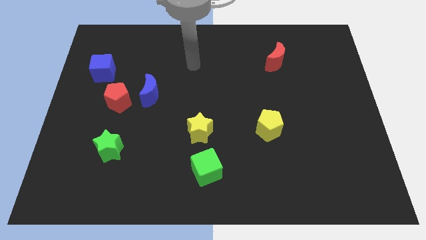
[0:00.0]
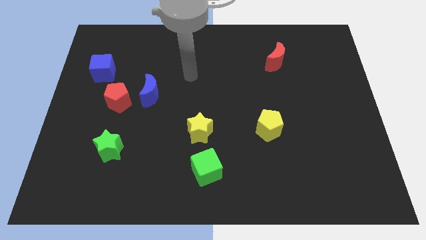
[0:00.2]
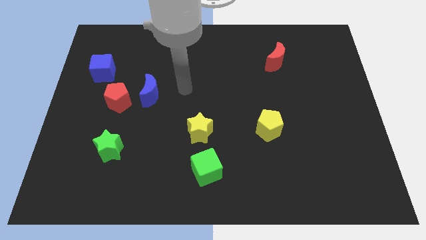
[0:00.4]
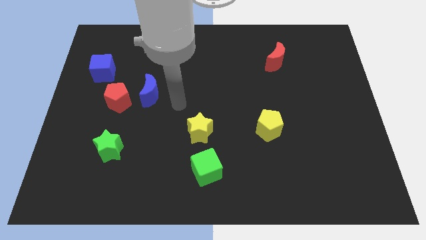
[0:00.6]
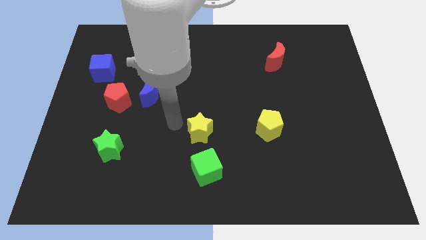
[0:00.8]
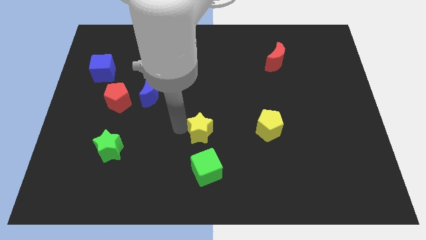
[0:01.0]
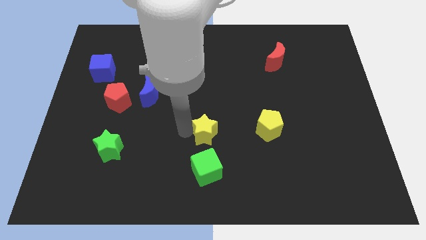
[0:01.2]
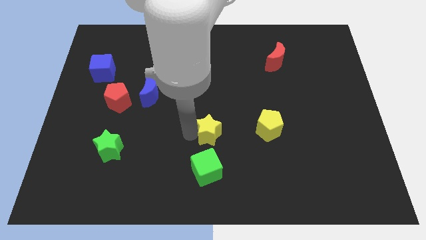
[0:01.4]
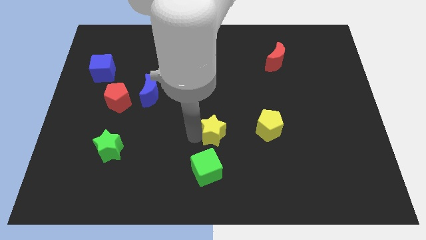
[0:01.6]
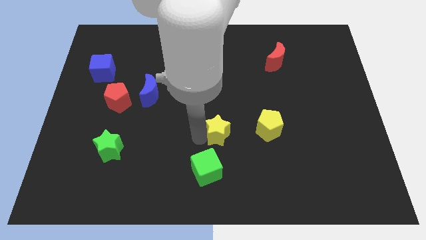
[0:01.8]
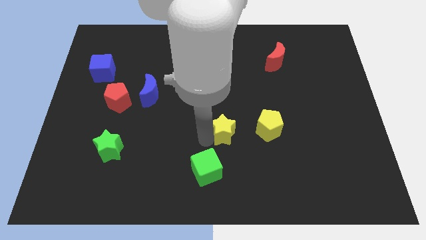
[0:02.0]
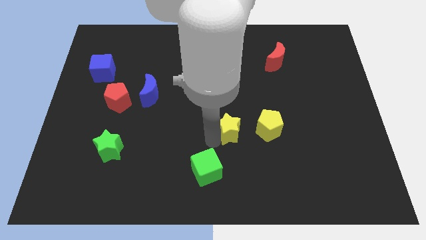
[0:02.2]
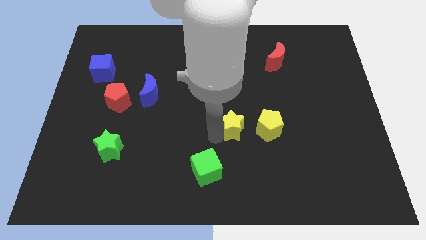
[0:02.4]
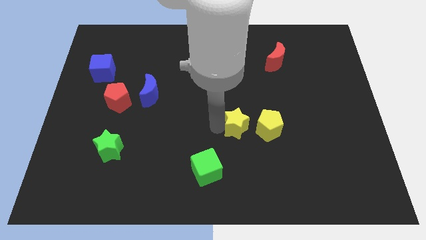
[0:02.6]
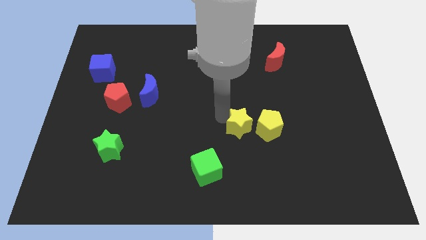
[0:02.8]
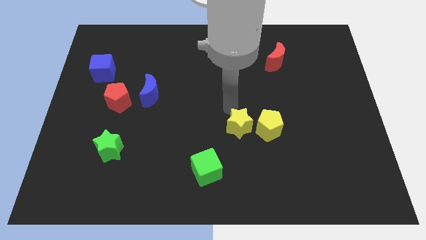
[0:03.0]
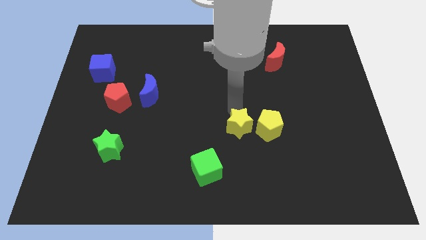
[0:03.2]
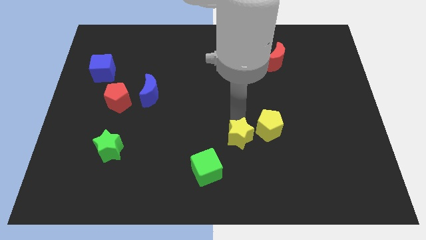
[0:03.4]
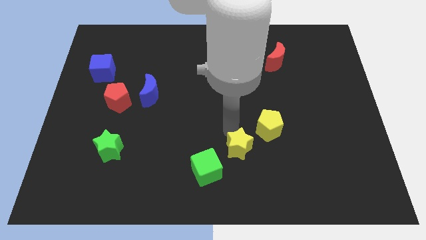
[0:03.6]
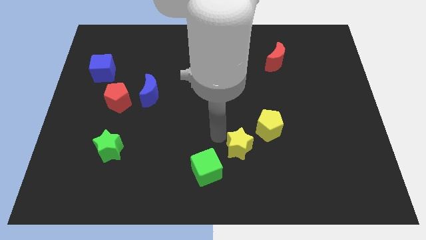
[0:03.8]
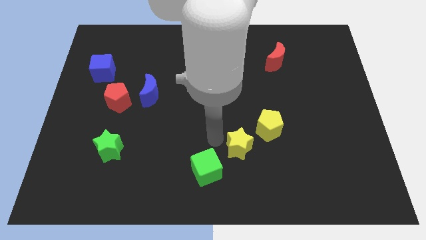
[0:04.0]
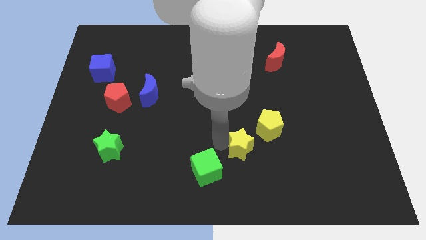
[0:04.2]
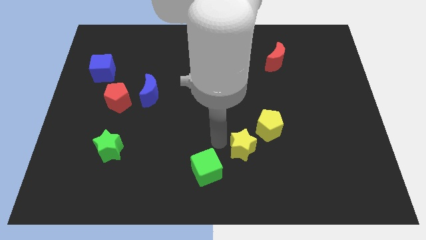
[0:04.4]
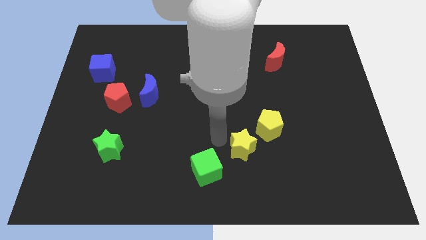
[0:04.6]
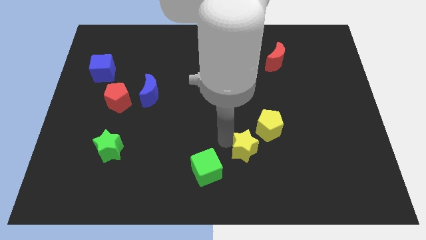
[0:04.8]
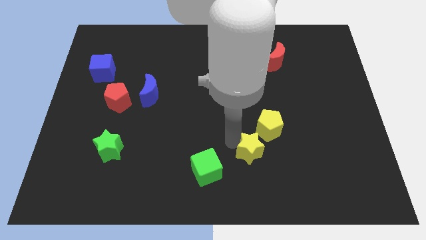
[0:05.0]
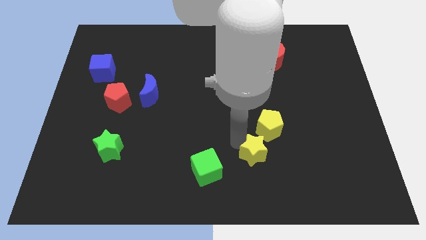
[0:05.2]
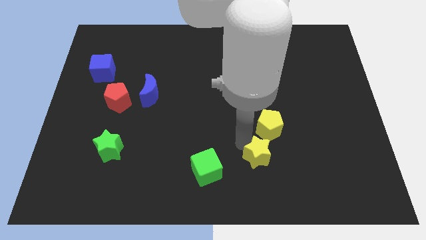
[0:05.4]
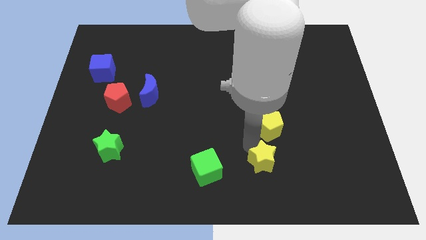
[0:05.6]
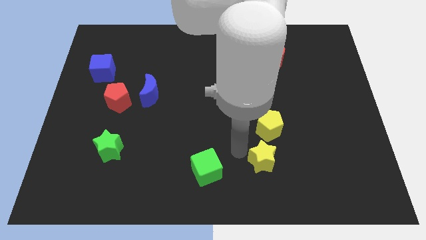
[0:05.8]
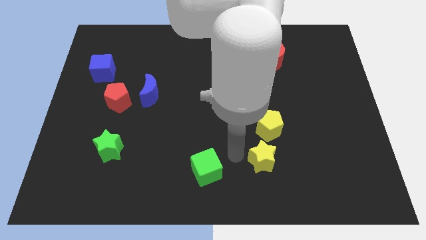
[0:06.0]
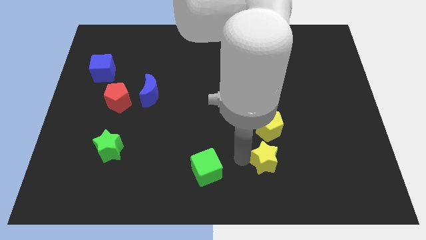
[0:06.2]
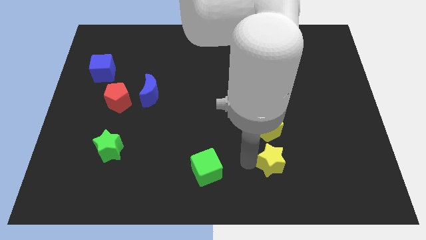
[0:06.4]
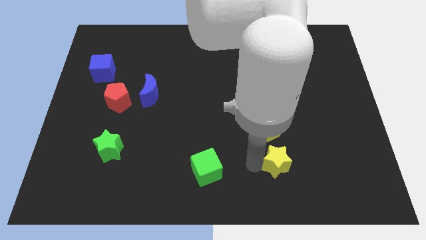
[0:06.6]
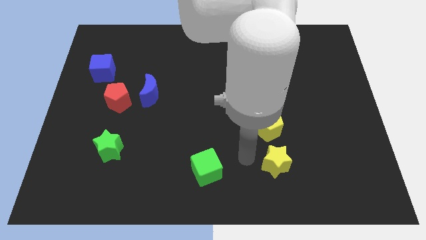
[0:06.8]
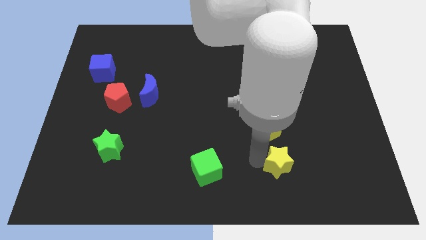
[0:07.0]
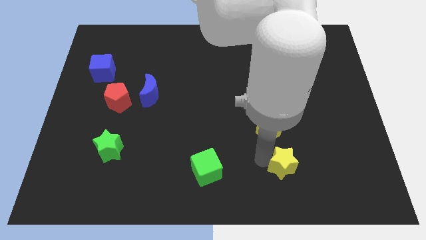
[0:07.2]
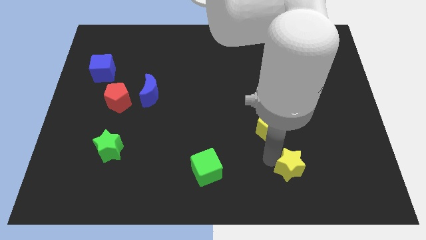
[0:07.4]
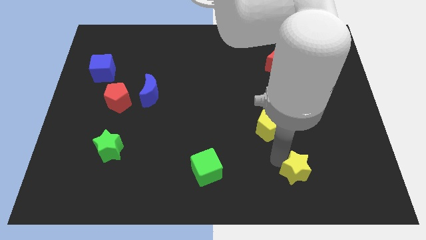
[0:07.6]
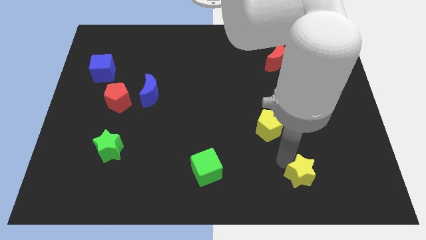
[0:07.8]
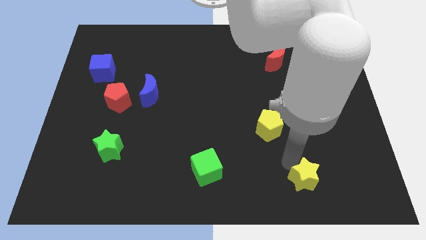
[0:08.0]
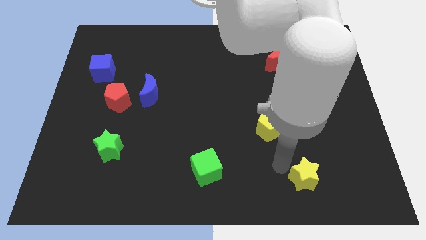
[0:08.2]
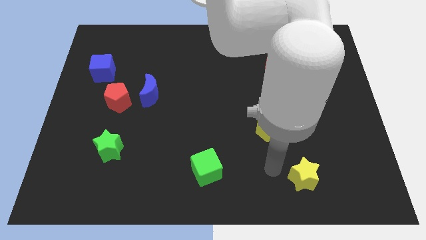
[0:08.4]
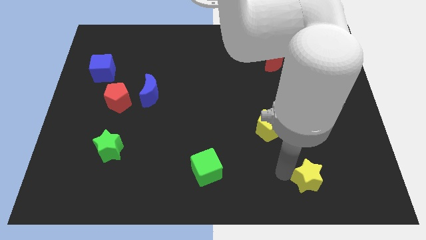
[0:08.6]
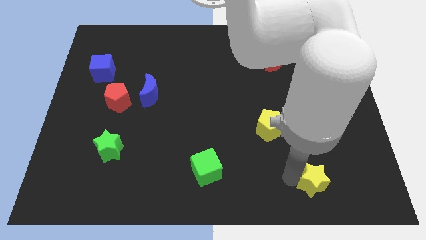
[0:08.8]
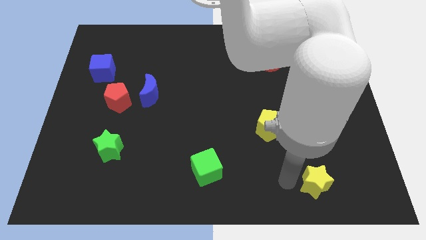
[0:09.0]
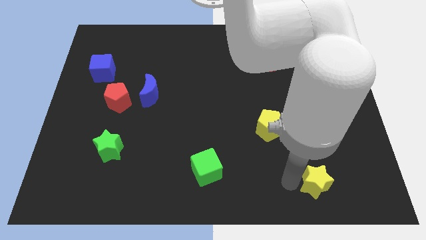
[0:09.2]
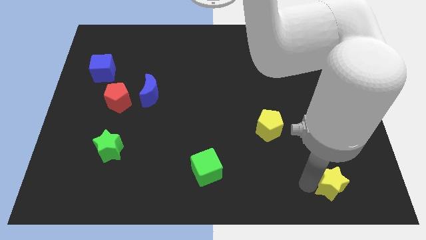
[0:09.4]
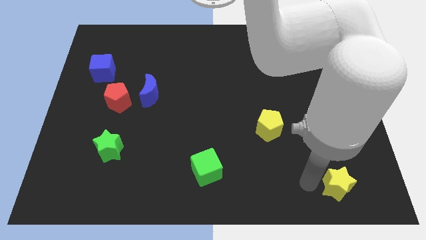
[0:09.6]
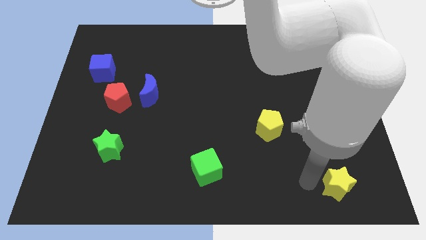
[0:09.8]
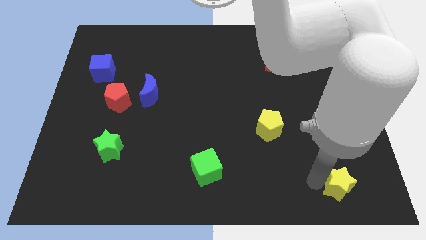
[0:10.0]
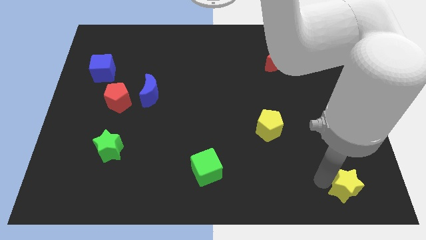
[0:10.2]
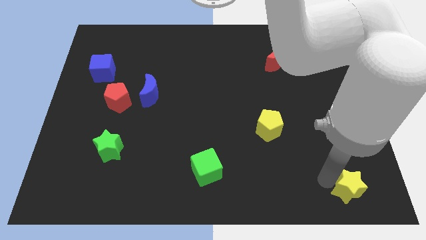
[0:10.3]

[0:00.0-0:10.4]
move the yellow star to the lower right corner

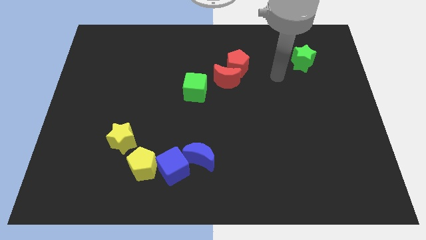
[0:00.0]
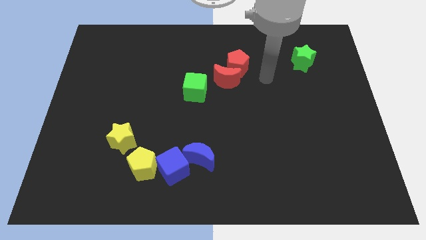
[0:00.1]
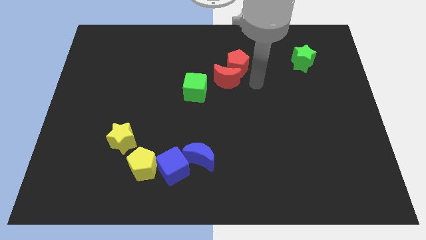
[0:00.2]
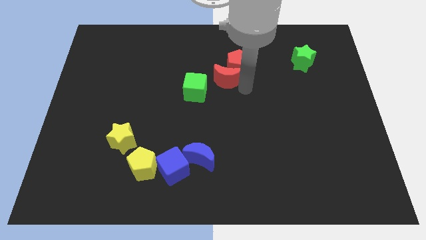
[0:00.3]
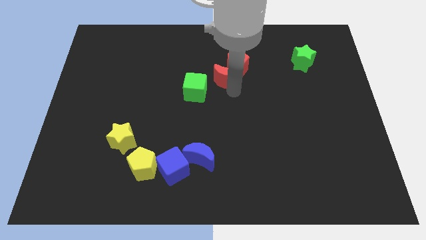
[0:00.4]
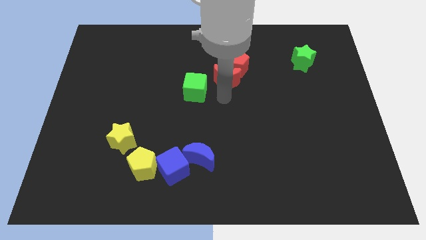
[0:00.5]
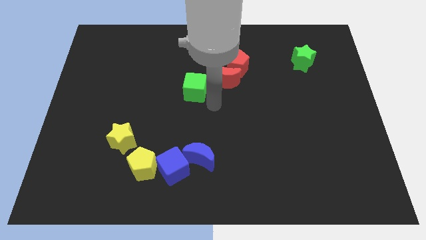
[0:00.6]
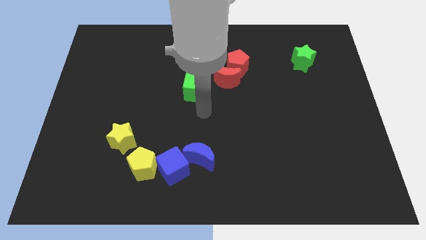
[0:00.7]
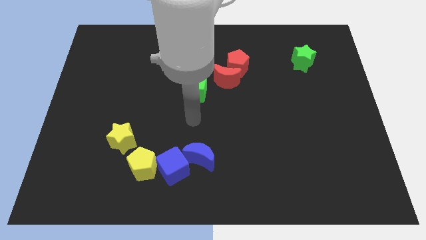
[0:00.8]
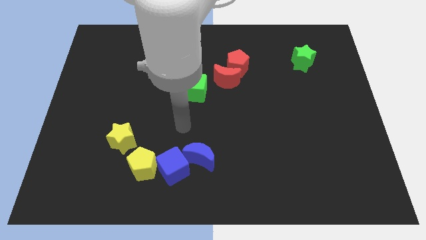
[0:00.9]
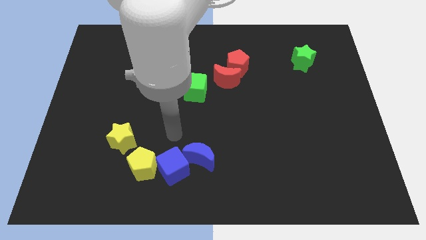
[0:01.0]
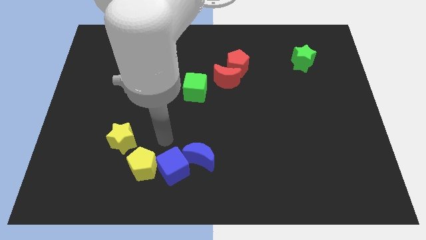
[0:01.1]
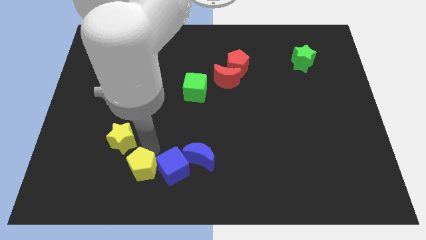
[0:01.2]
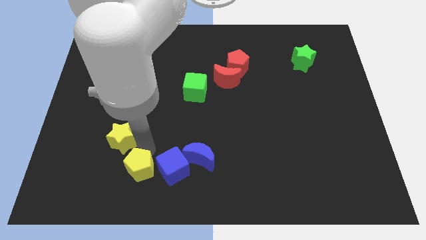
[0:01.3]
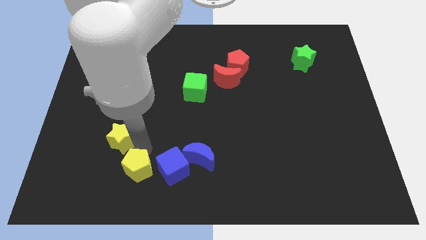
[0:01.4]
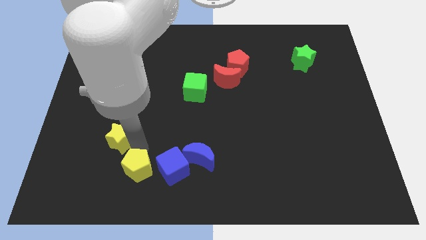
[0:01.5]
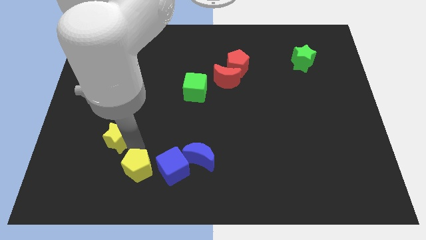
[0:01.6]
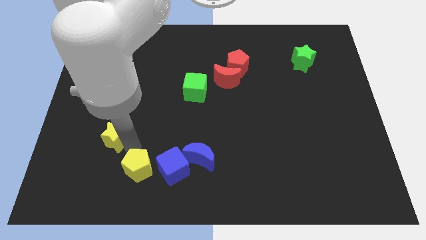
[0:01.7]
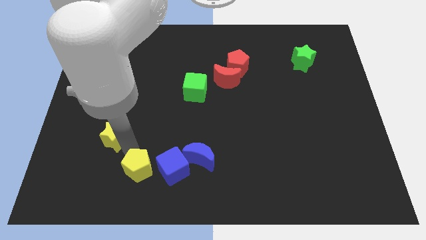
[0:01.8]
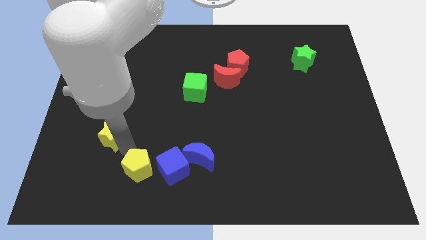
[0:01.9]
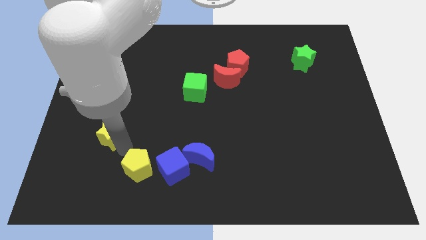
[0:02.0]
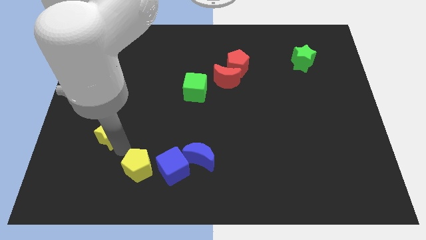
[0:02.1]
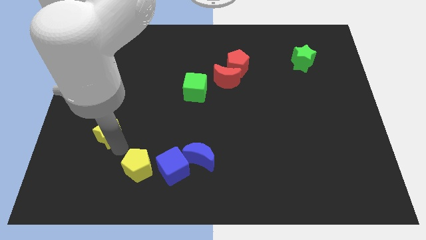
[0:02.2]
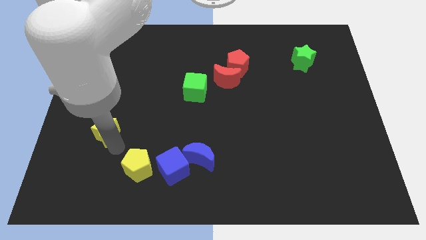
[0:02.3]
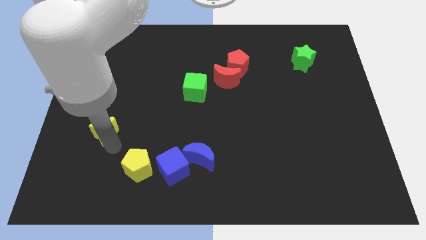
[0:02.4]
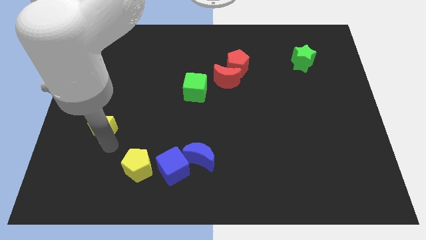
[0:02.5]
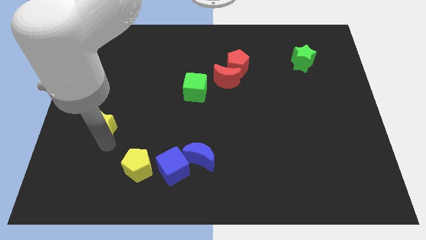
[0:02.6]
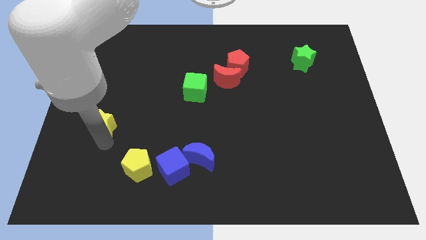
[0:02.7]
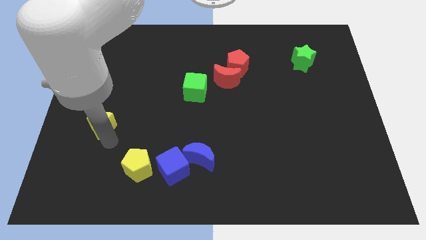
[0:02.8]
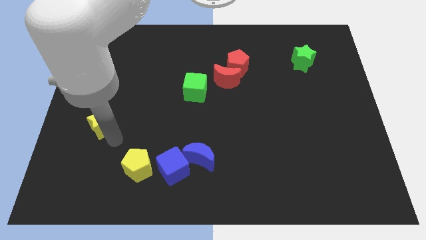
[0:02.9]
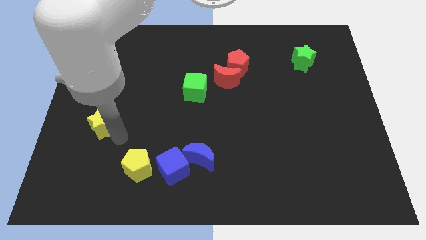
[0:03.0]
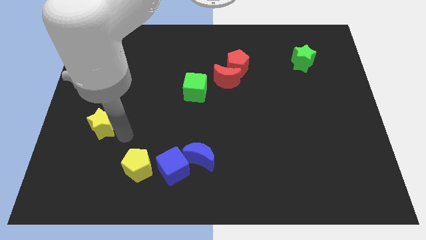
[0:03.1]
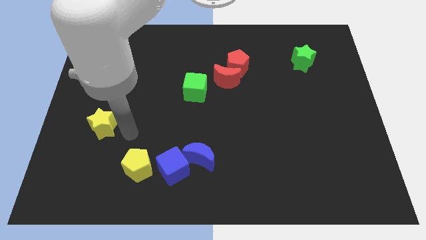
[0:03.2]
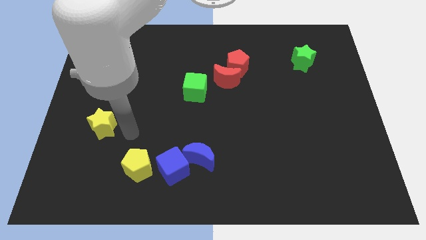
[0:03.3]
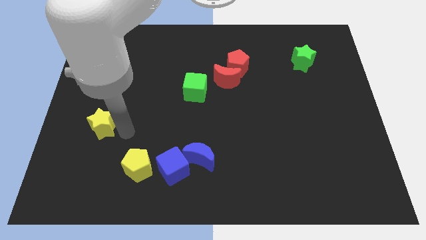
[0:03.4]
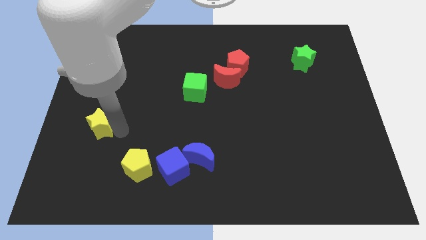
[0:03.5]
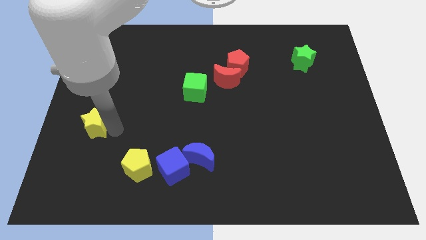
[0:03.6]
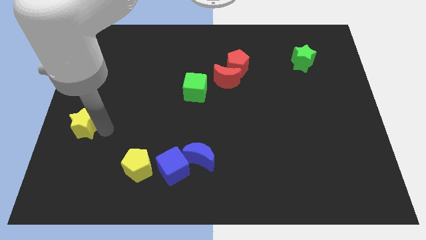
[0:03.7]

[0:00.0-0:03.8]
put the yellow star to the center left
